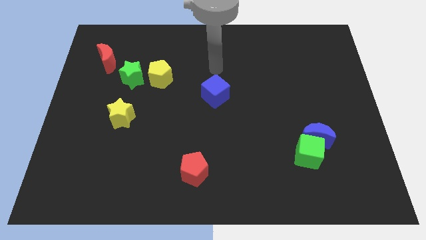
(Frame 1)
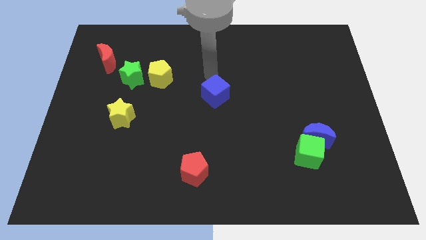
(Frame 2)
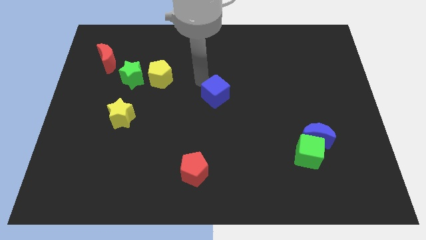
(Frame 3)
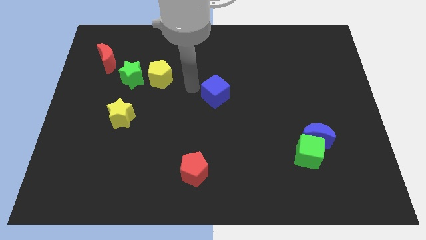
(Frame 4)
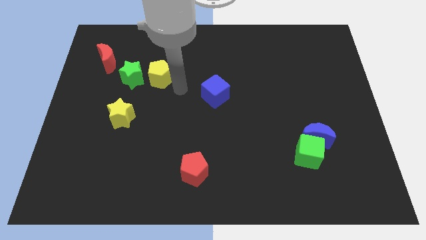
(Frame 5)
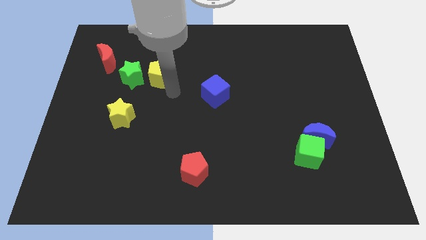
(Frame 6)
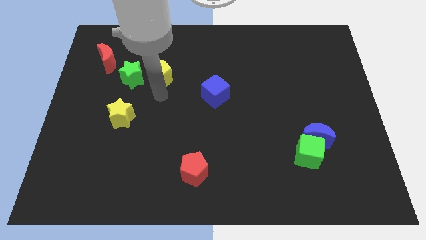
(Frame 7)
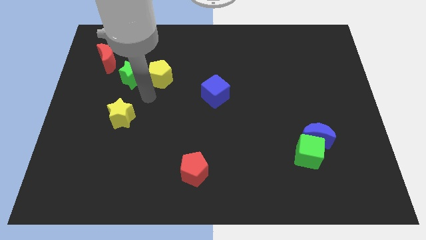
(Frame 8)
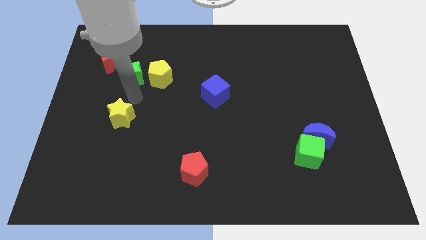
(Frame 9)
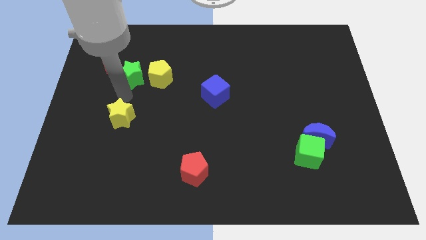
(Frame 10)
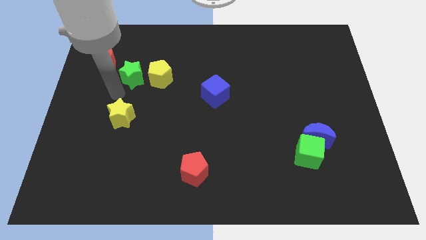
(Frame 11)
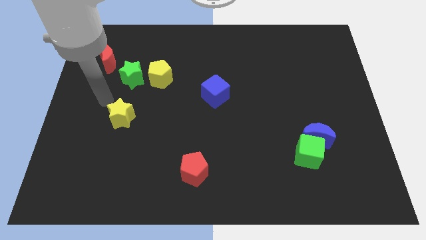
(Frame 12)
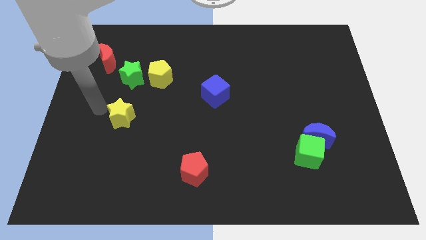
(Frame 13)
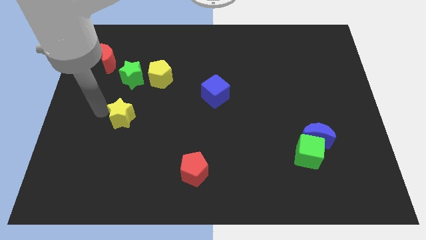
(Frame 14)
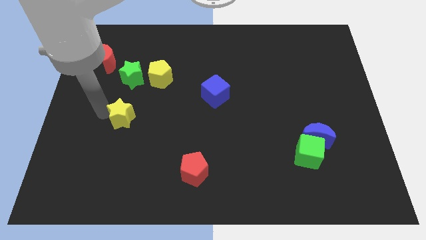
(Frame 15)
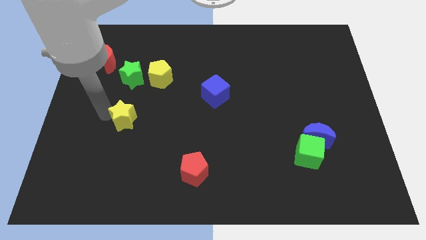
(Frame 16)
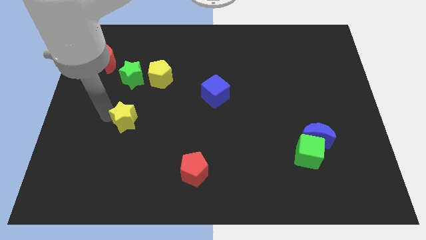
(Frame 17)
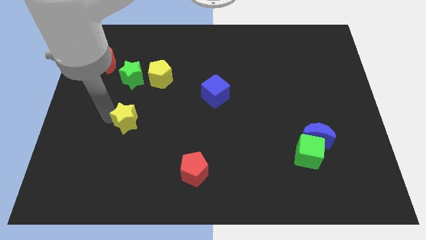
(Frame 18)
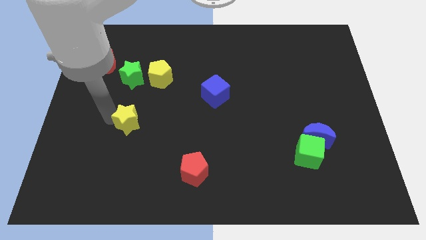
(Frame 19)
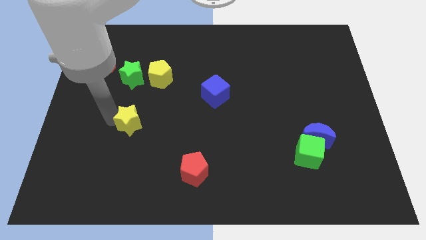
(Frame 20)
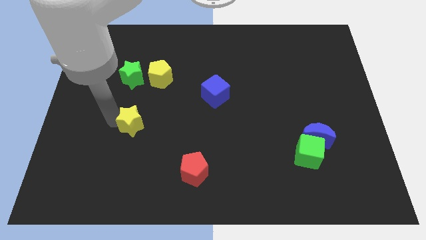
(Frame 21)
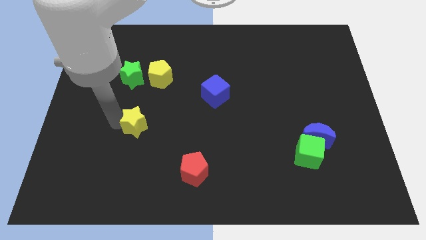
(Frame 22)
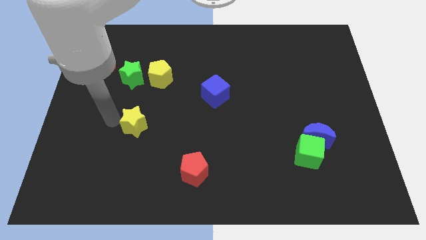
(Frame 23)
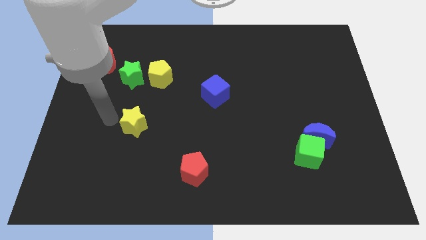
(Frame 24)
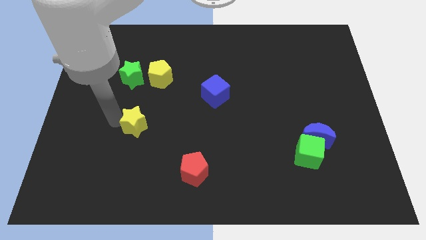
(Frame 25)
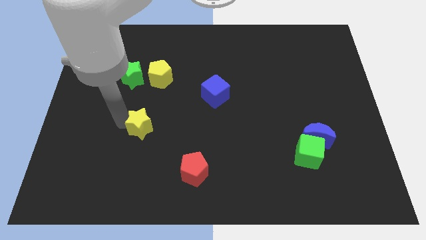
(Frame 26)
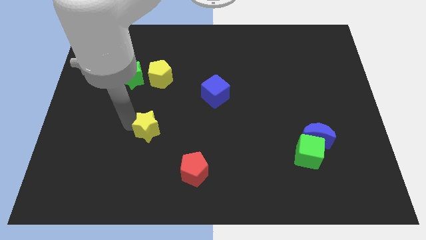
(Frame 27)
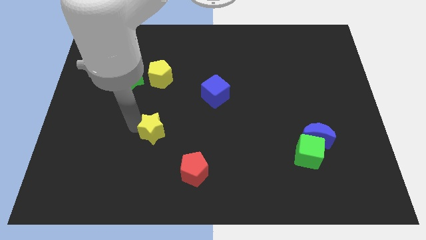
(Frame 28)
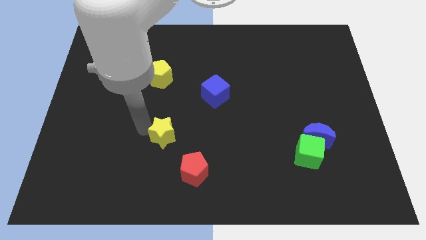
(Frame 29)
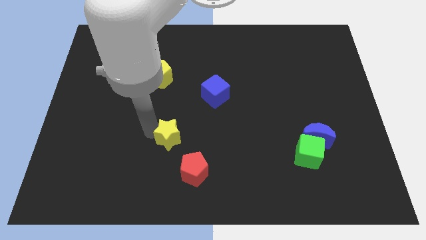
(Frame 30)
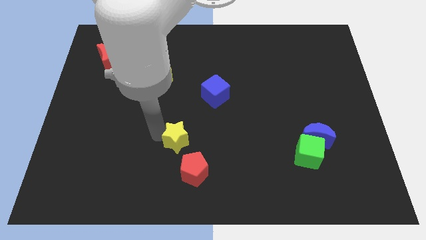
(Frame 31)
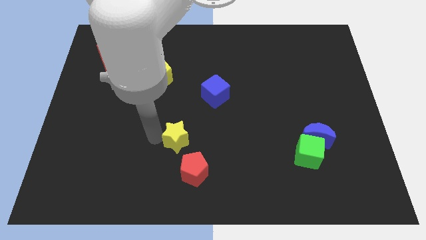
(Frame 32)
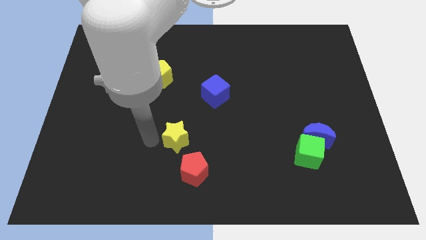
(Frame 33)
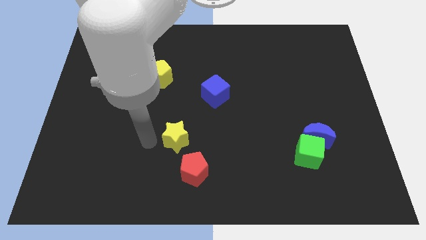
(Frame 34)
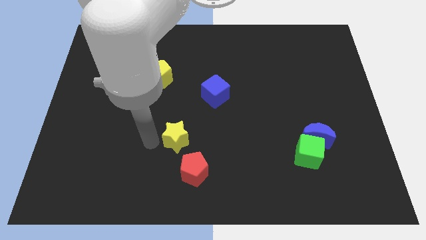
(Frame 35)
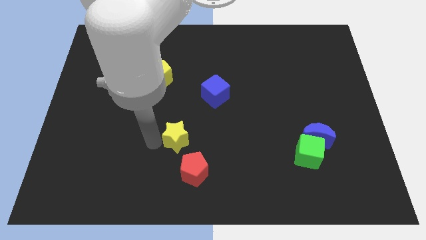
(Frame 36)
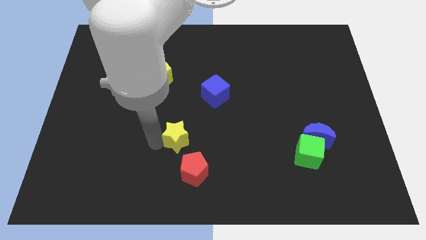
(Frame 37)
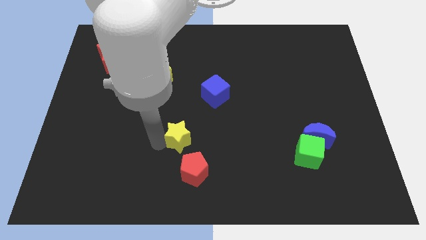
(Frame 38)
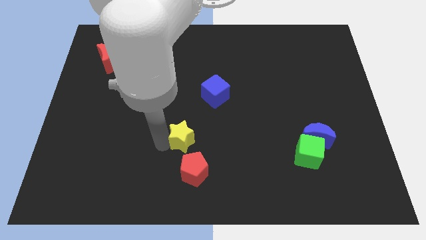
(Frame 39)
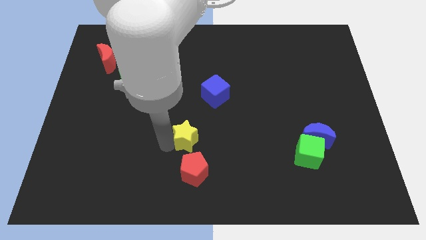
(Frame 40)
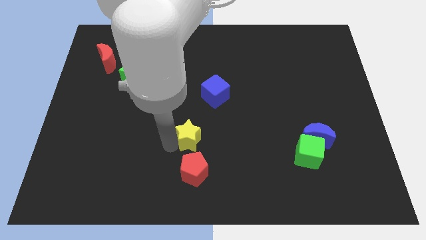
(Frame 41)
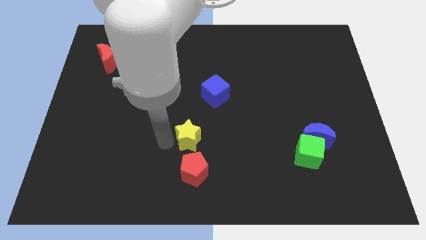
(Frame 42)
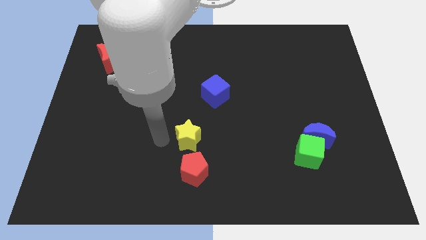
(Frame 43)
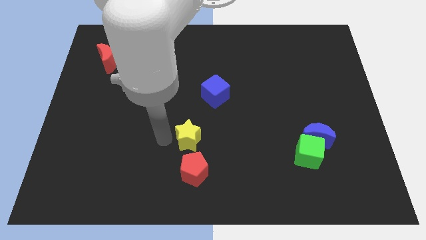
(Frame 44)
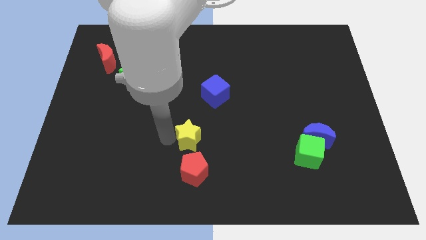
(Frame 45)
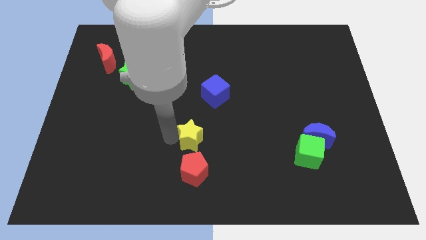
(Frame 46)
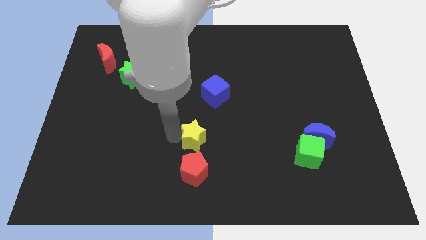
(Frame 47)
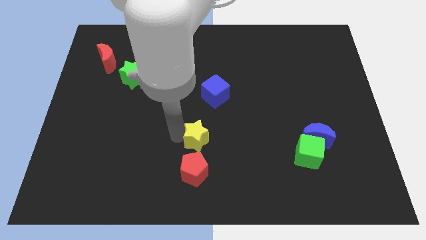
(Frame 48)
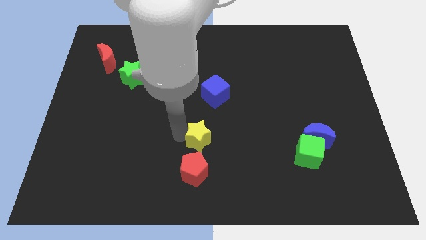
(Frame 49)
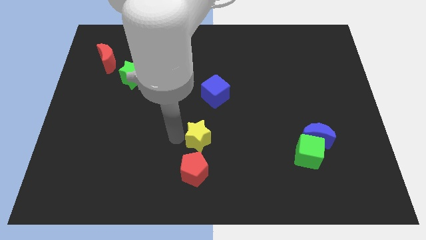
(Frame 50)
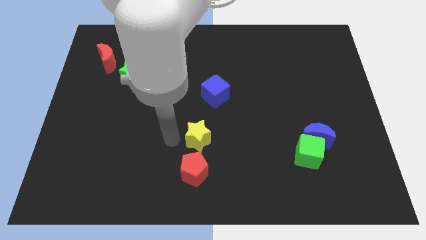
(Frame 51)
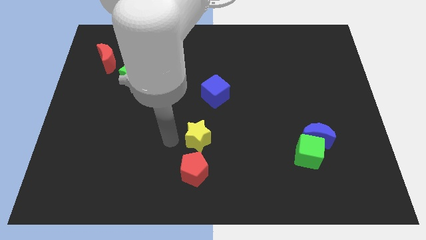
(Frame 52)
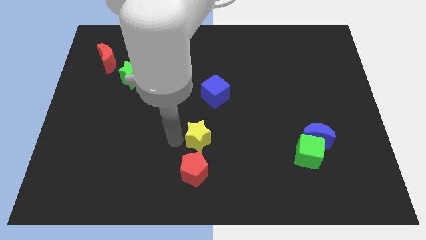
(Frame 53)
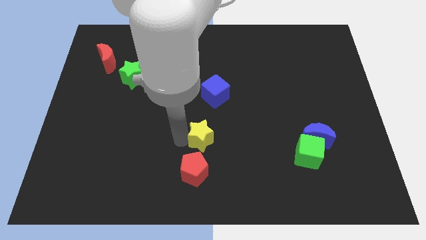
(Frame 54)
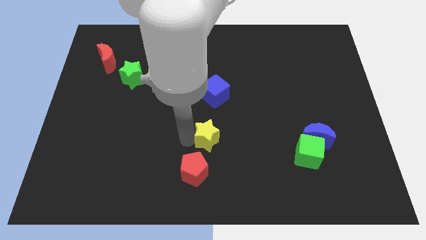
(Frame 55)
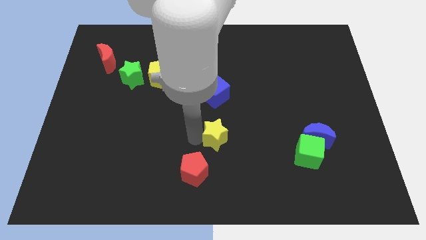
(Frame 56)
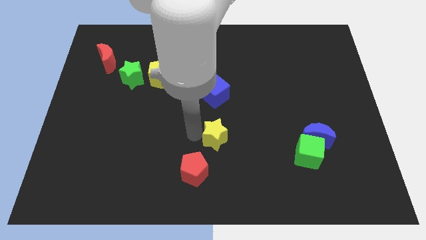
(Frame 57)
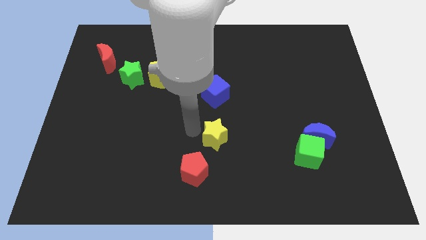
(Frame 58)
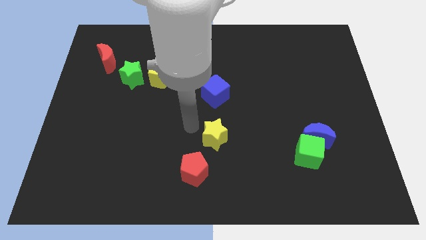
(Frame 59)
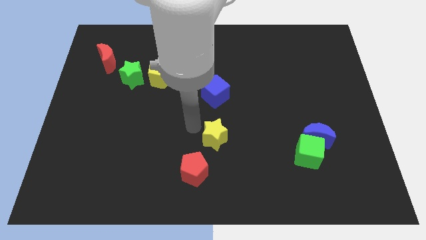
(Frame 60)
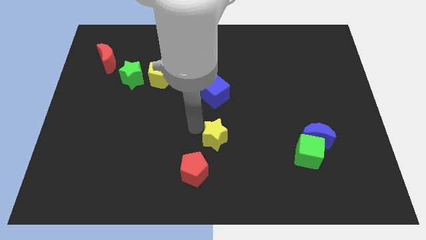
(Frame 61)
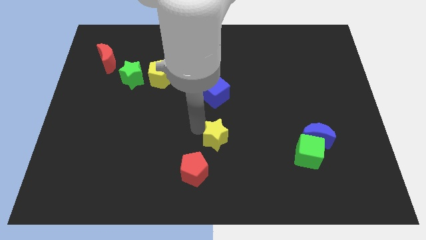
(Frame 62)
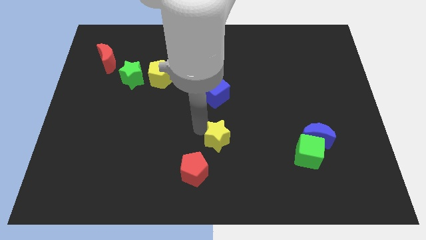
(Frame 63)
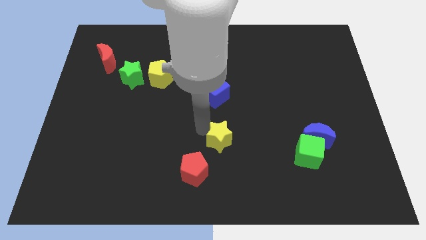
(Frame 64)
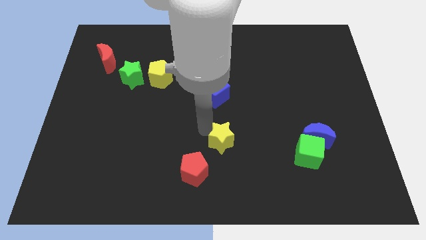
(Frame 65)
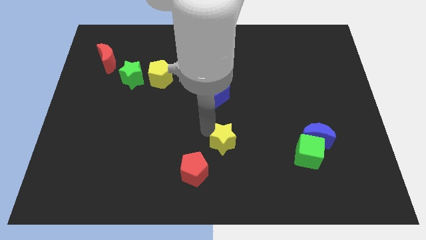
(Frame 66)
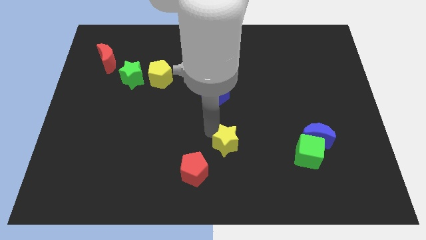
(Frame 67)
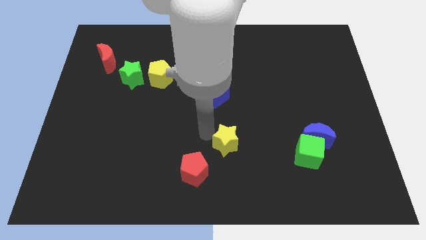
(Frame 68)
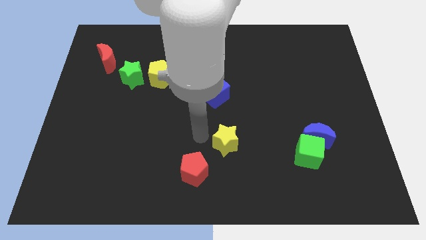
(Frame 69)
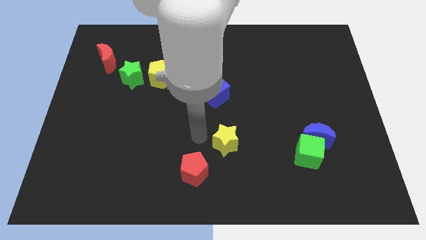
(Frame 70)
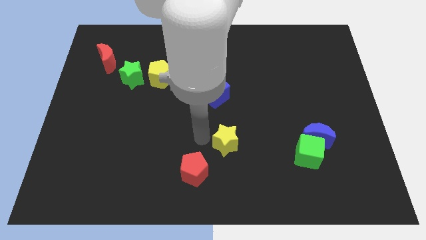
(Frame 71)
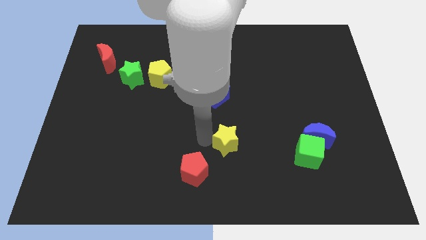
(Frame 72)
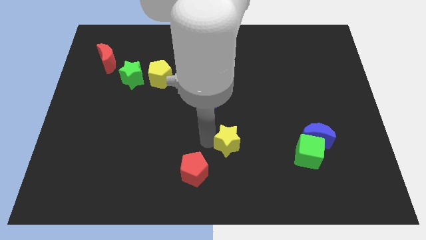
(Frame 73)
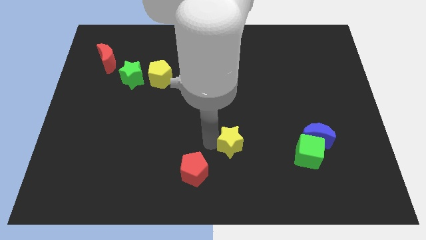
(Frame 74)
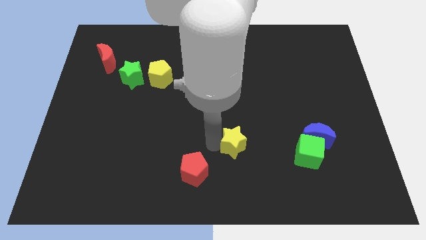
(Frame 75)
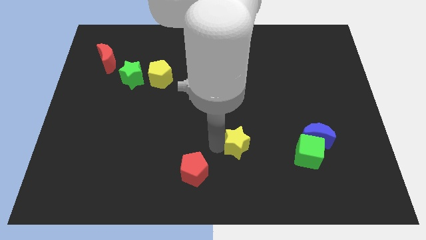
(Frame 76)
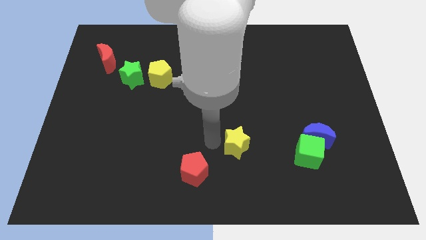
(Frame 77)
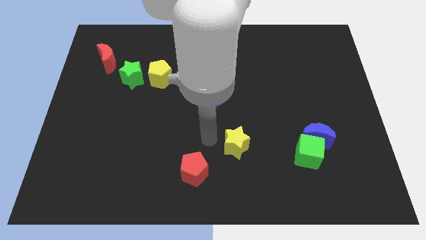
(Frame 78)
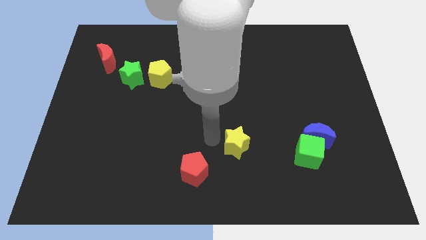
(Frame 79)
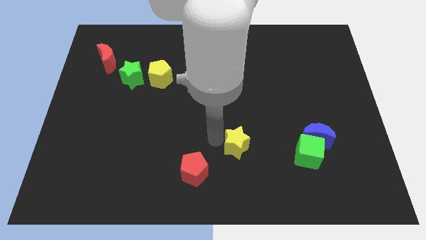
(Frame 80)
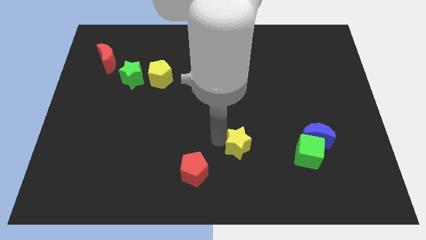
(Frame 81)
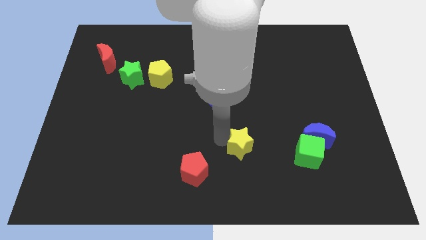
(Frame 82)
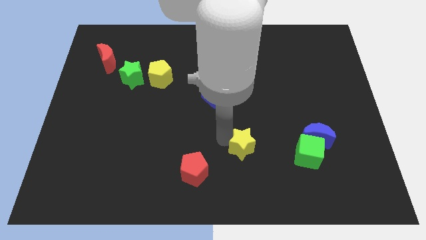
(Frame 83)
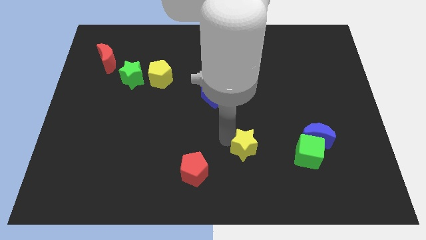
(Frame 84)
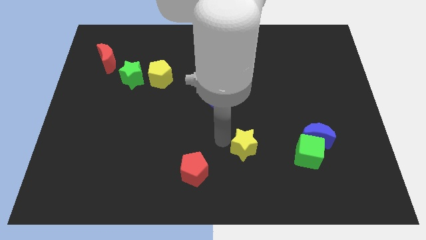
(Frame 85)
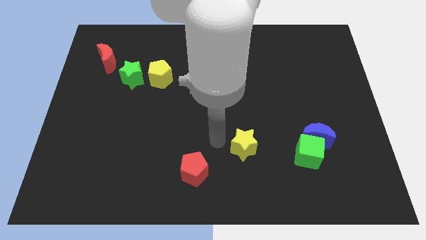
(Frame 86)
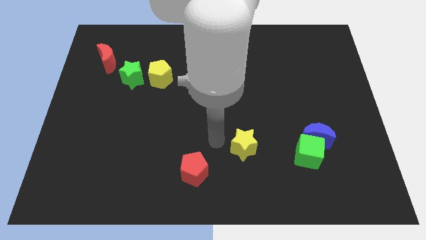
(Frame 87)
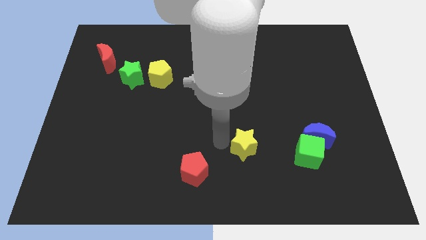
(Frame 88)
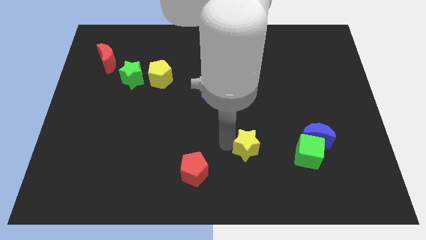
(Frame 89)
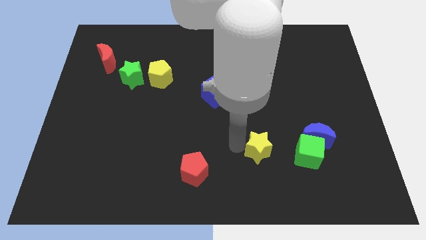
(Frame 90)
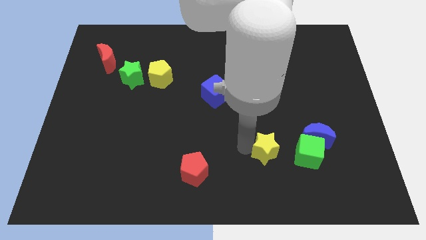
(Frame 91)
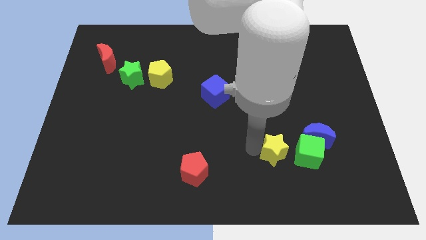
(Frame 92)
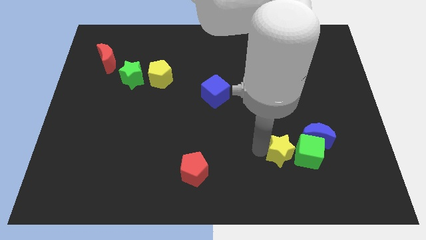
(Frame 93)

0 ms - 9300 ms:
push the yellow star next to the green cube
